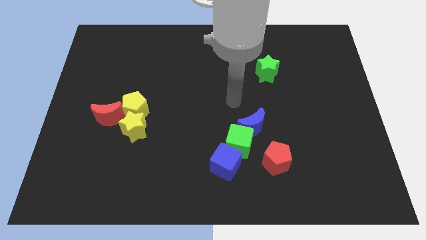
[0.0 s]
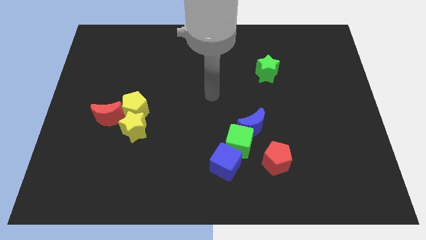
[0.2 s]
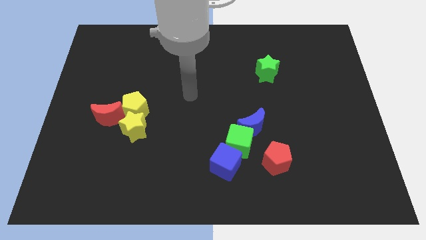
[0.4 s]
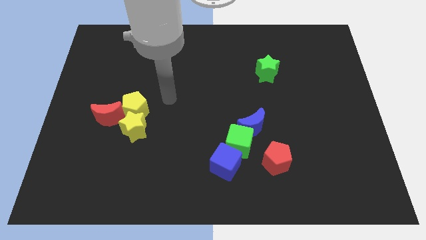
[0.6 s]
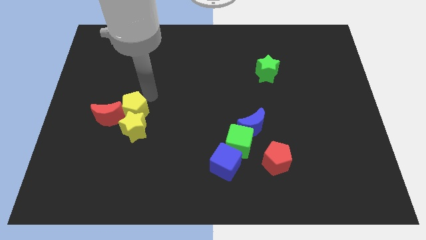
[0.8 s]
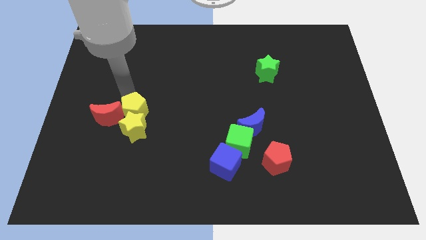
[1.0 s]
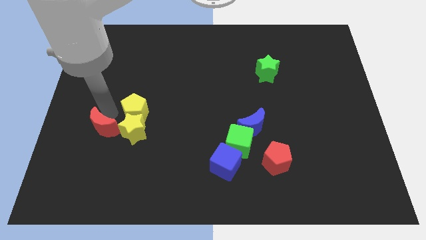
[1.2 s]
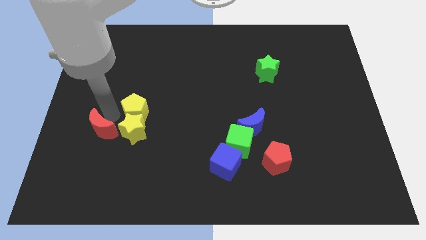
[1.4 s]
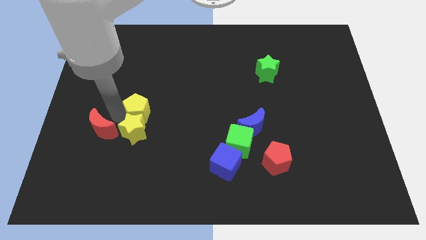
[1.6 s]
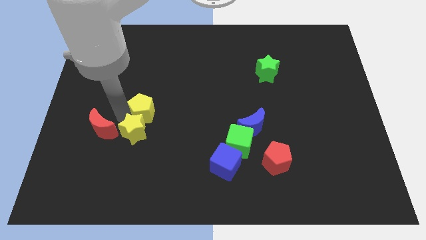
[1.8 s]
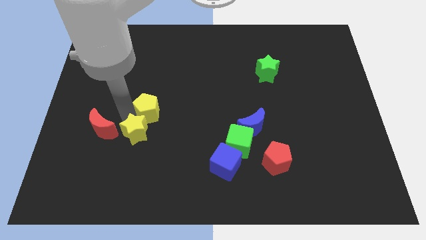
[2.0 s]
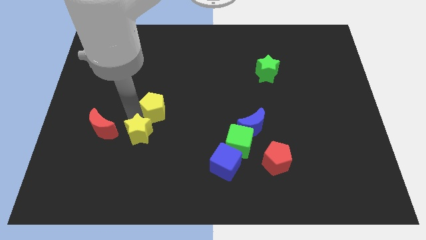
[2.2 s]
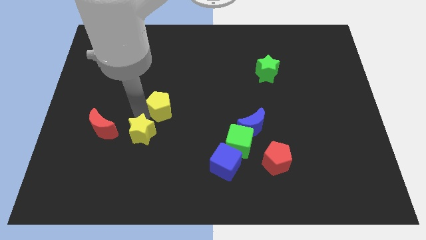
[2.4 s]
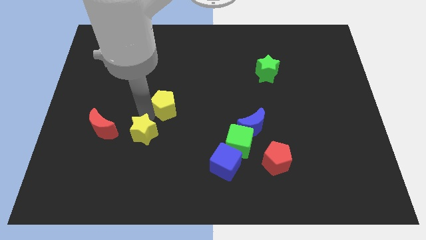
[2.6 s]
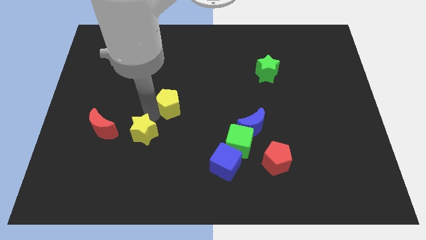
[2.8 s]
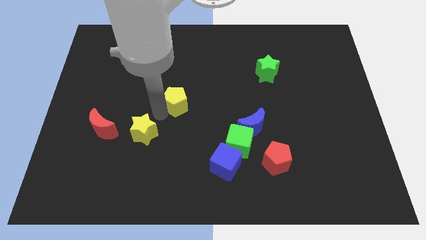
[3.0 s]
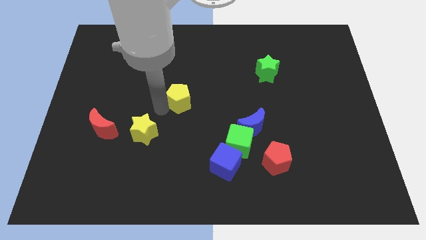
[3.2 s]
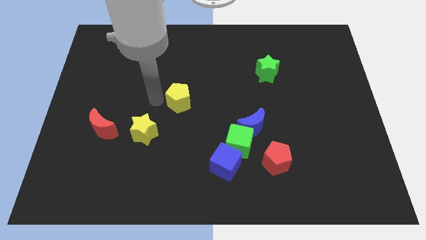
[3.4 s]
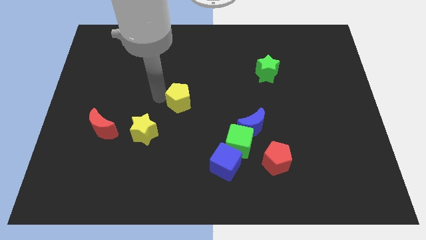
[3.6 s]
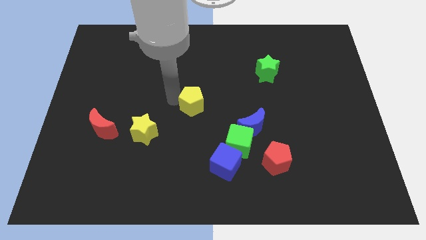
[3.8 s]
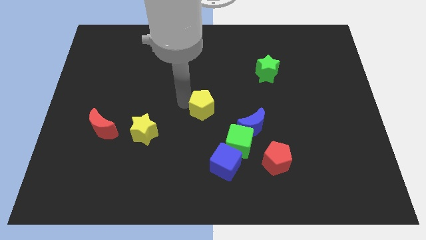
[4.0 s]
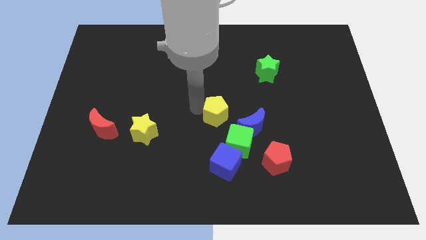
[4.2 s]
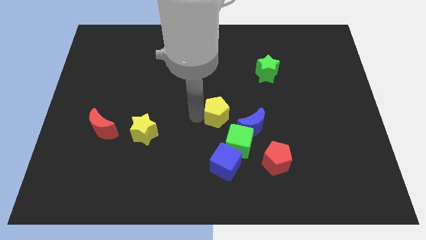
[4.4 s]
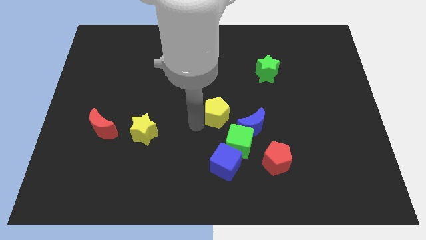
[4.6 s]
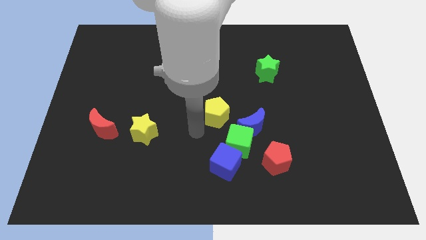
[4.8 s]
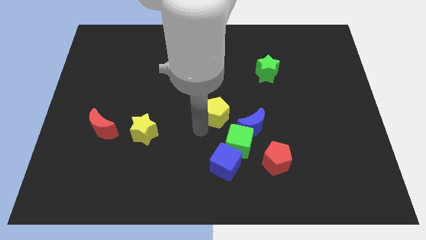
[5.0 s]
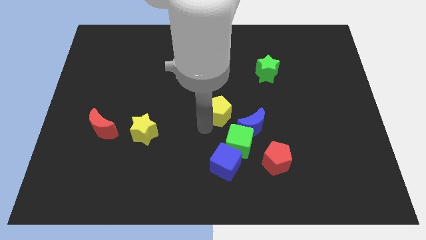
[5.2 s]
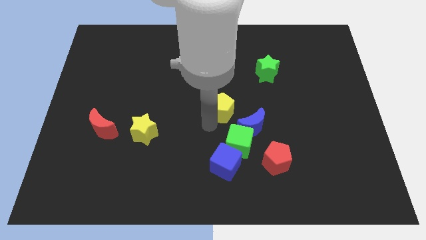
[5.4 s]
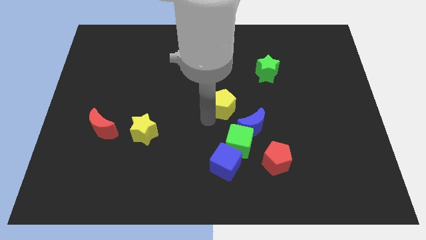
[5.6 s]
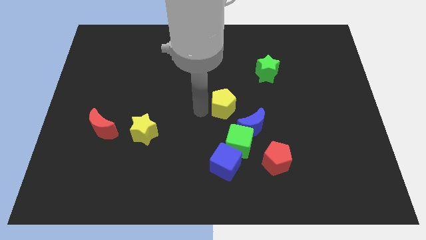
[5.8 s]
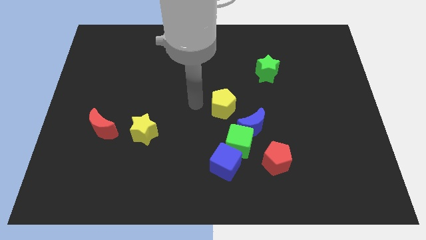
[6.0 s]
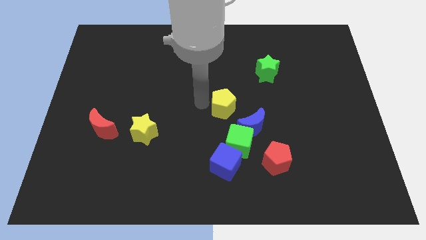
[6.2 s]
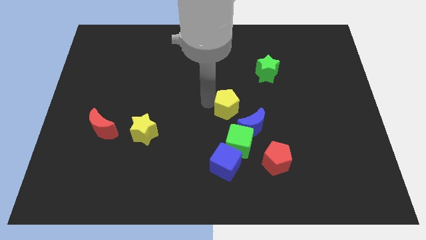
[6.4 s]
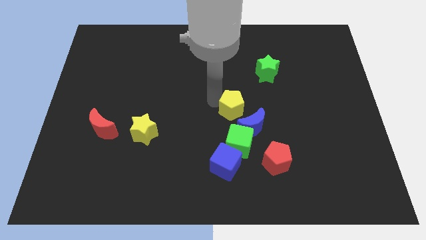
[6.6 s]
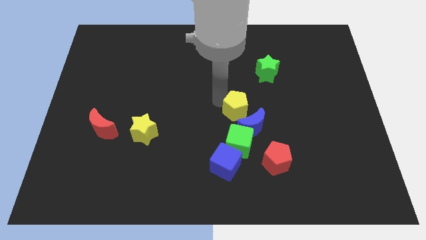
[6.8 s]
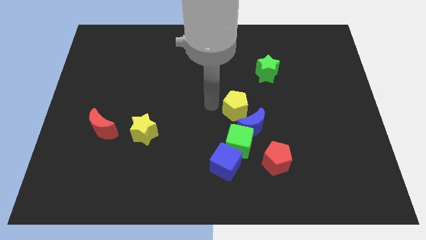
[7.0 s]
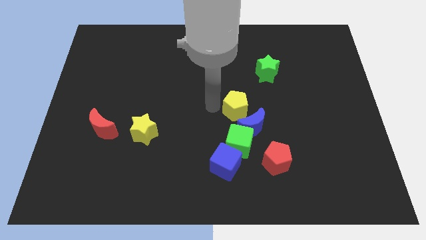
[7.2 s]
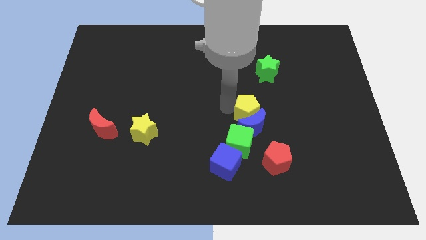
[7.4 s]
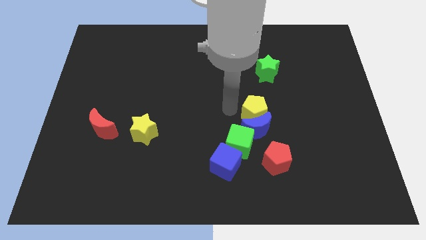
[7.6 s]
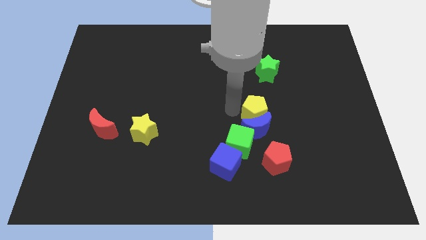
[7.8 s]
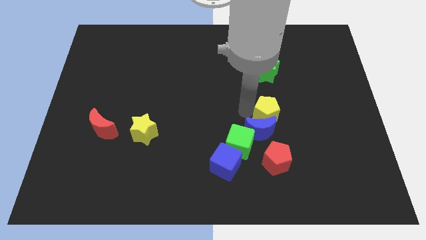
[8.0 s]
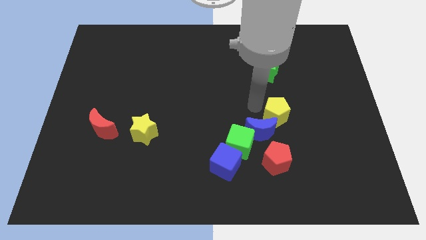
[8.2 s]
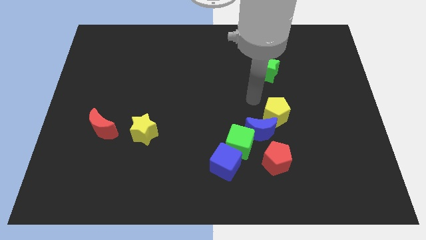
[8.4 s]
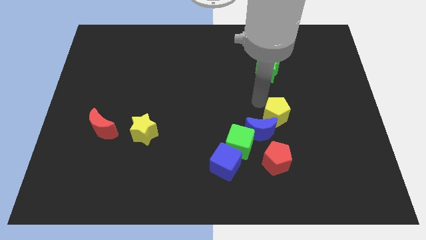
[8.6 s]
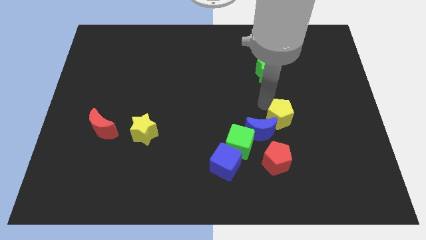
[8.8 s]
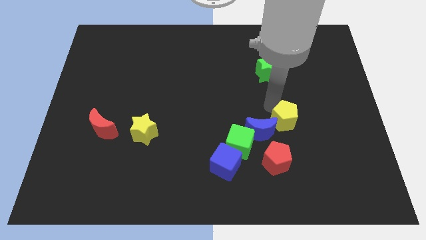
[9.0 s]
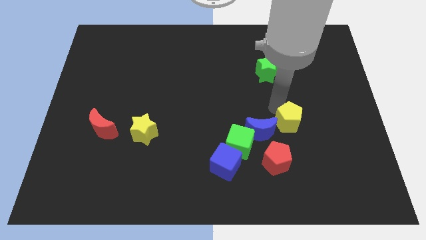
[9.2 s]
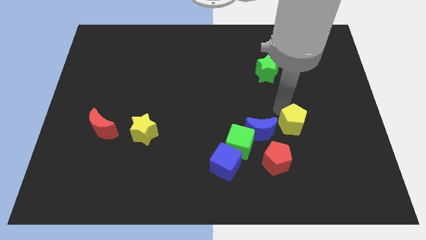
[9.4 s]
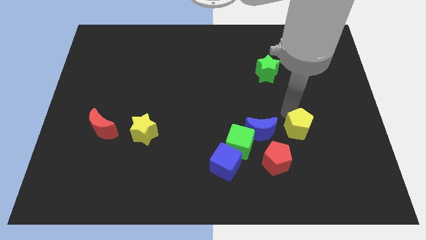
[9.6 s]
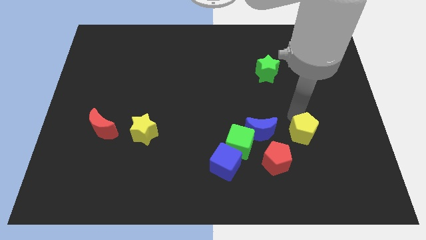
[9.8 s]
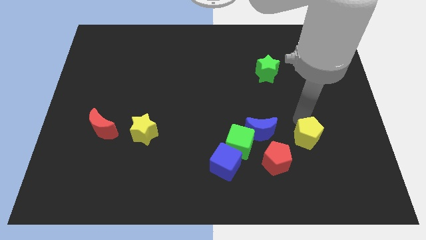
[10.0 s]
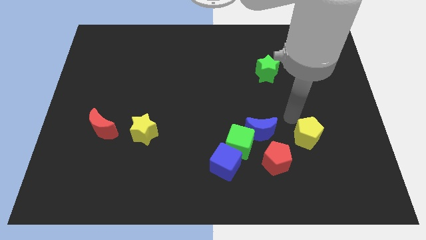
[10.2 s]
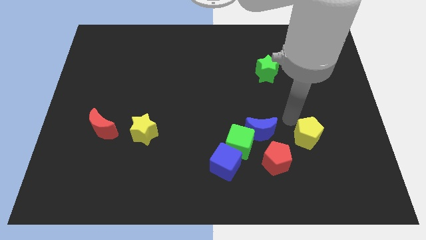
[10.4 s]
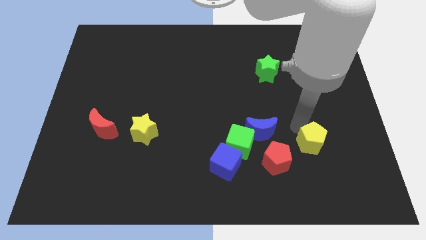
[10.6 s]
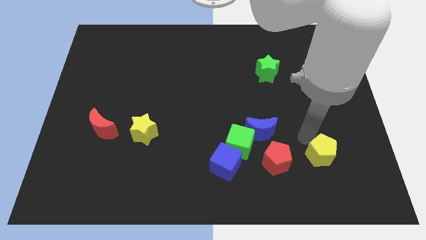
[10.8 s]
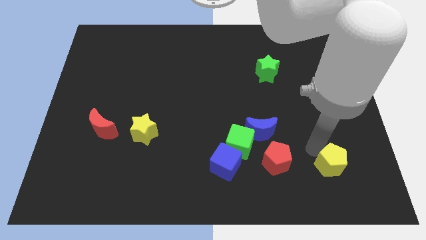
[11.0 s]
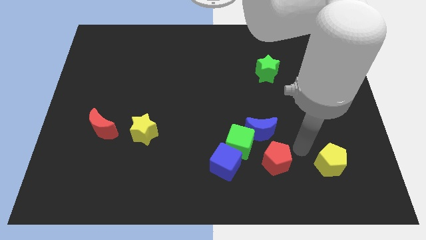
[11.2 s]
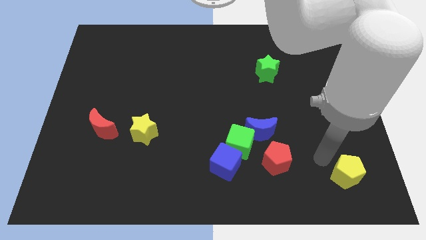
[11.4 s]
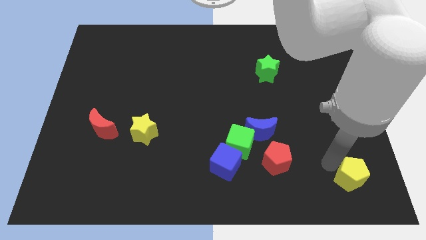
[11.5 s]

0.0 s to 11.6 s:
push the yellow pentagon to the bottom right of the board

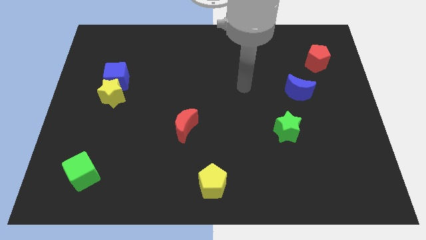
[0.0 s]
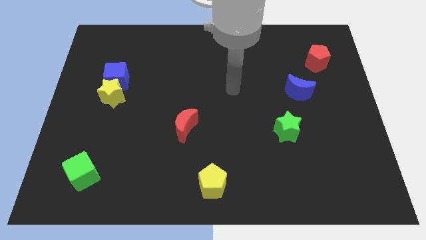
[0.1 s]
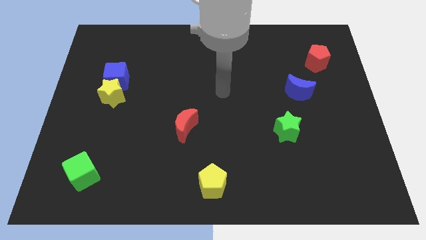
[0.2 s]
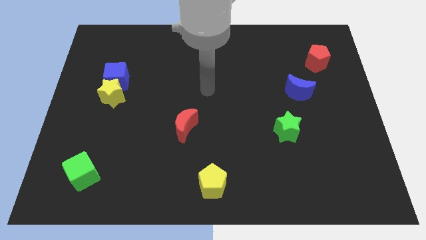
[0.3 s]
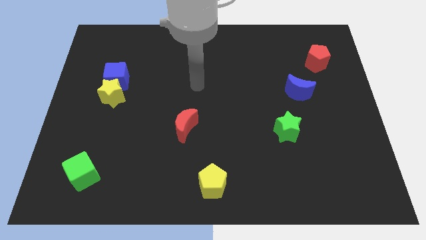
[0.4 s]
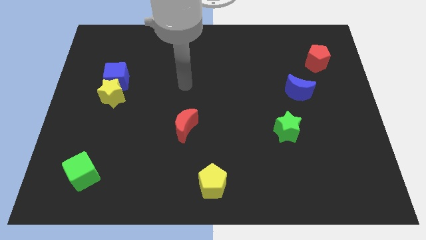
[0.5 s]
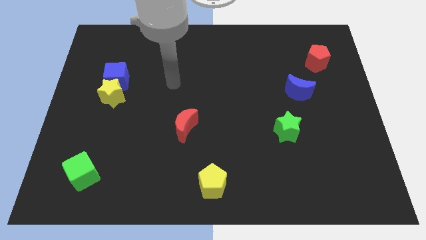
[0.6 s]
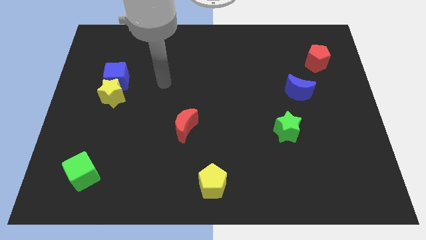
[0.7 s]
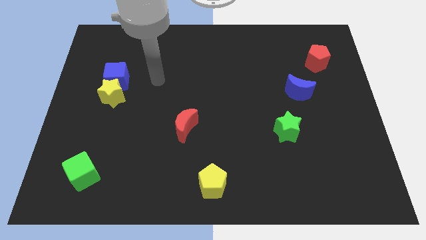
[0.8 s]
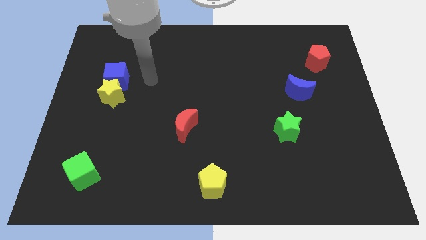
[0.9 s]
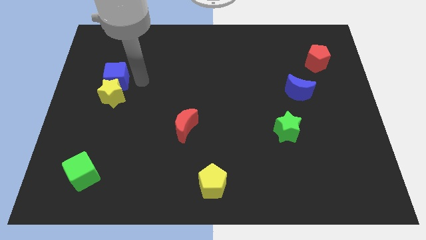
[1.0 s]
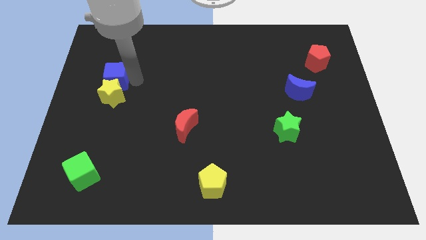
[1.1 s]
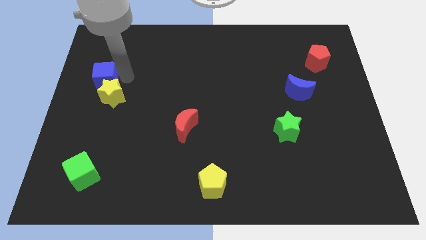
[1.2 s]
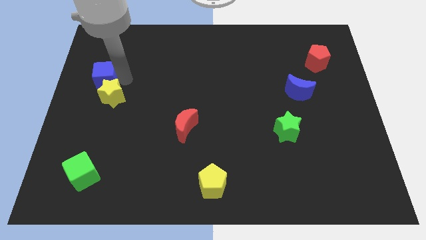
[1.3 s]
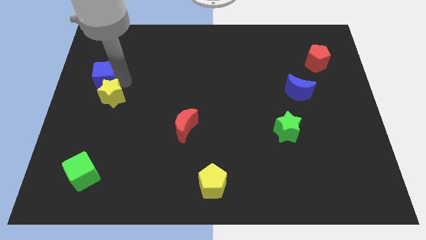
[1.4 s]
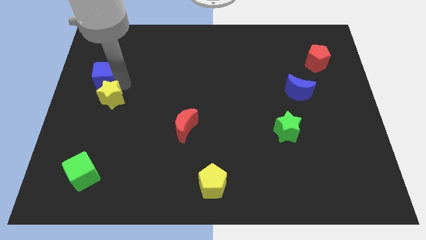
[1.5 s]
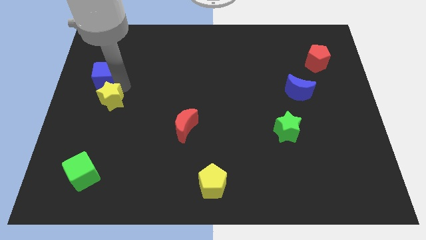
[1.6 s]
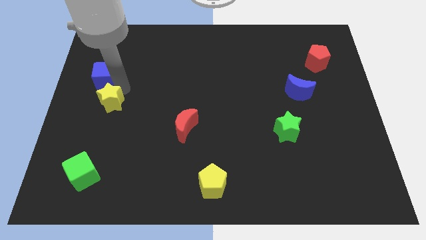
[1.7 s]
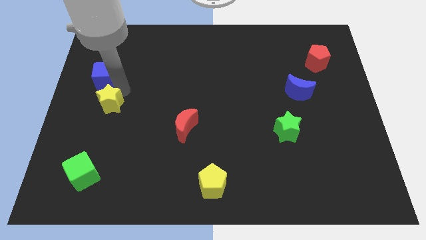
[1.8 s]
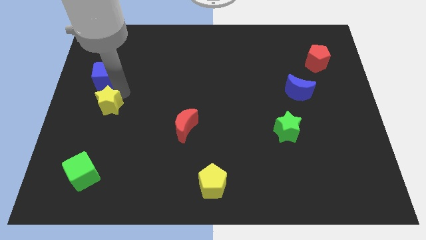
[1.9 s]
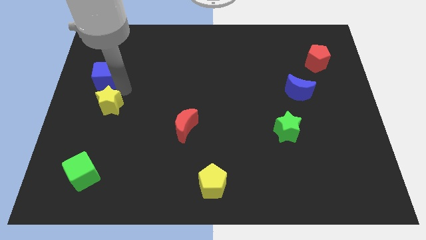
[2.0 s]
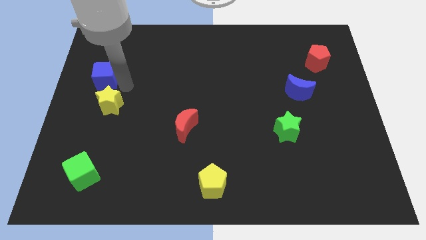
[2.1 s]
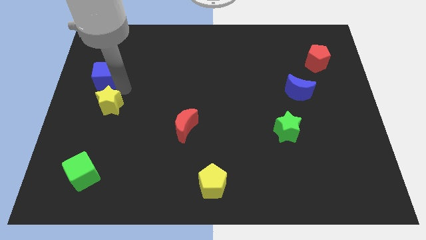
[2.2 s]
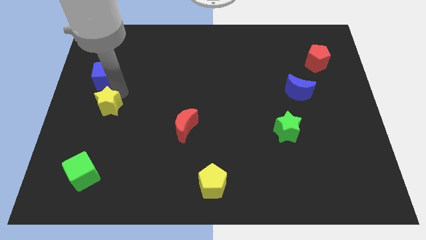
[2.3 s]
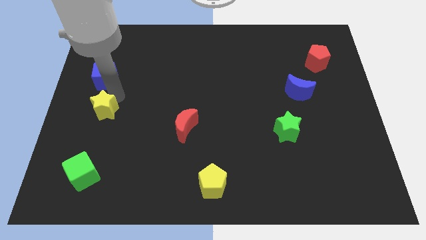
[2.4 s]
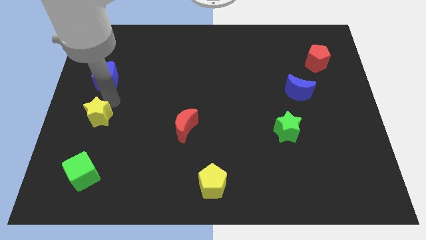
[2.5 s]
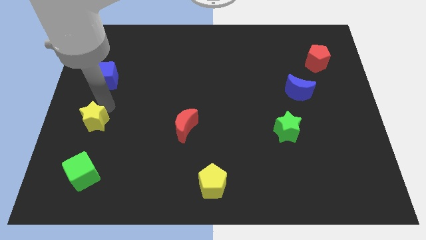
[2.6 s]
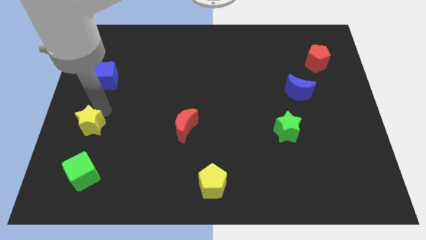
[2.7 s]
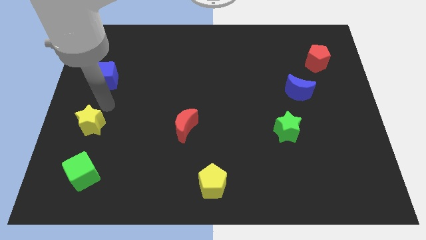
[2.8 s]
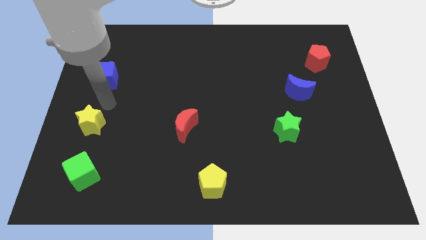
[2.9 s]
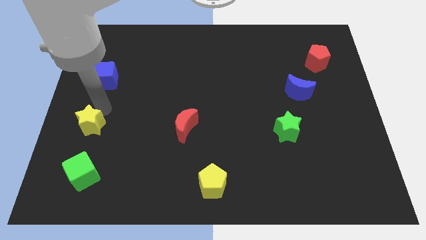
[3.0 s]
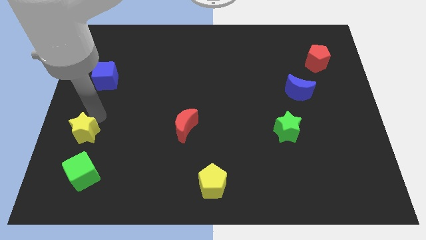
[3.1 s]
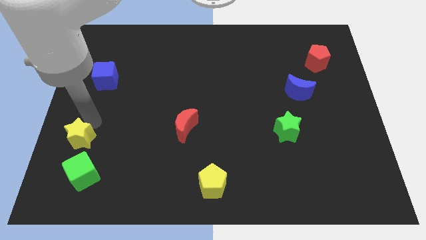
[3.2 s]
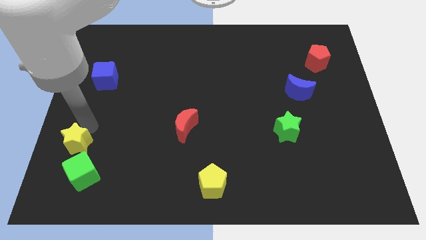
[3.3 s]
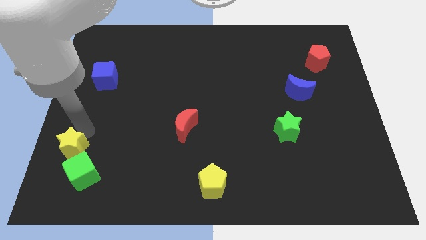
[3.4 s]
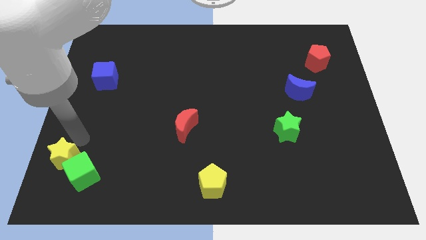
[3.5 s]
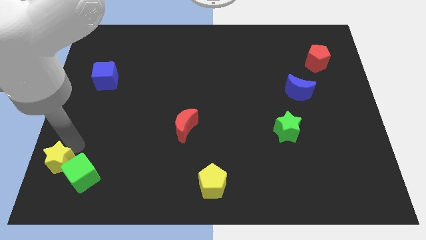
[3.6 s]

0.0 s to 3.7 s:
slide the yellow star to the lower left corner
